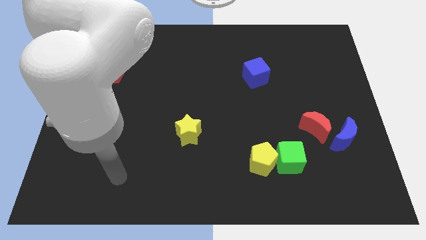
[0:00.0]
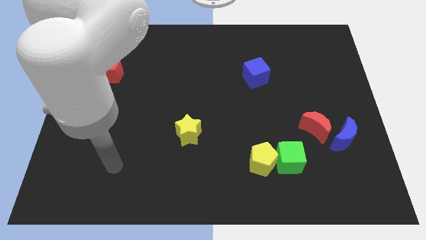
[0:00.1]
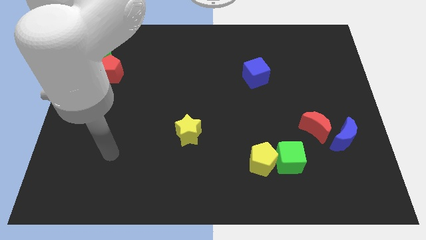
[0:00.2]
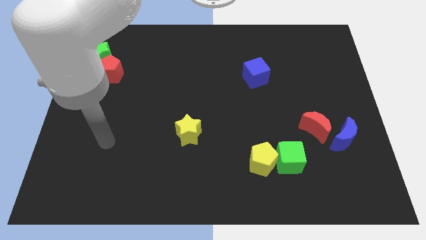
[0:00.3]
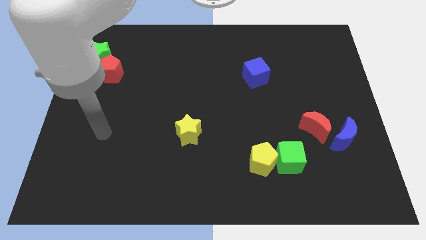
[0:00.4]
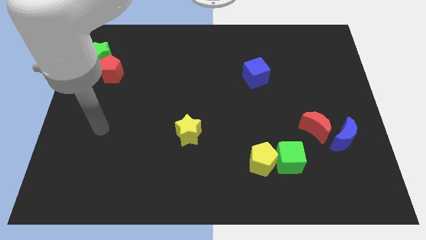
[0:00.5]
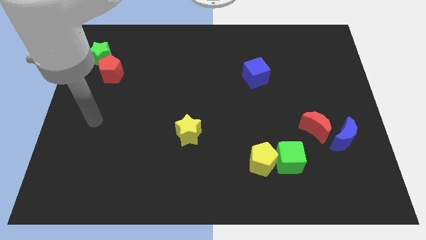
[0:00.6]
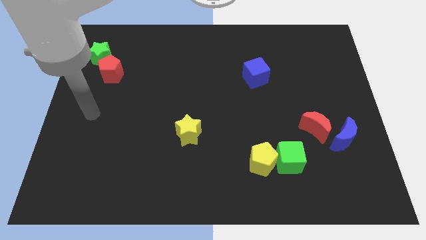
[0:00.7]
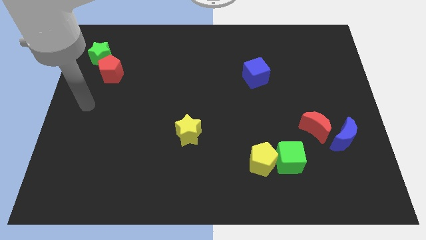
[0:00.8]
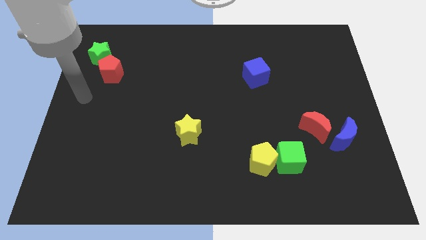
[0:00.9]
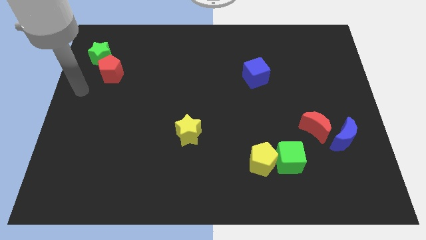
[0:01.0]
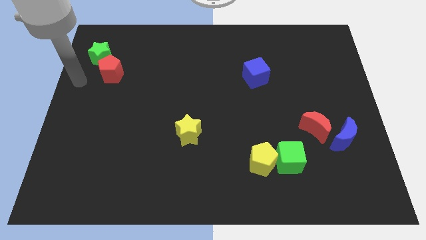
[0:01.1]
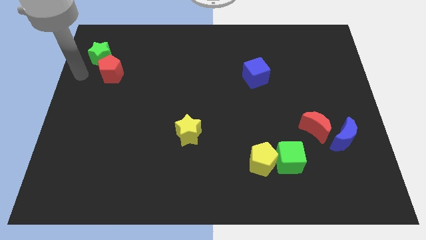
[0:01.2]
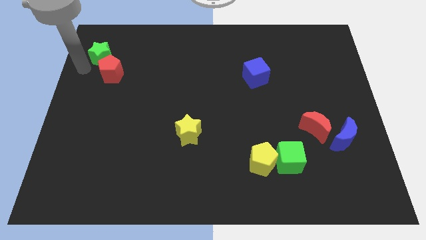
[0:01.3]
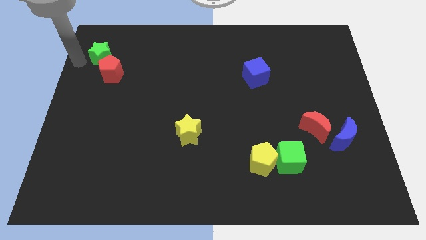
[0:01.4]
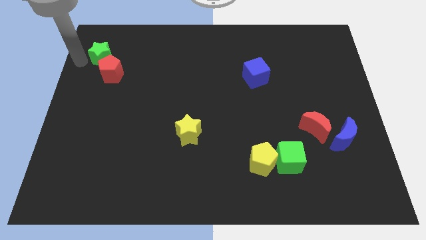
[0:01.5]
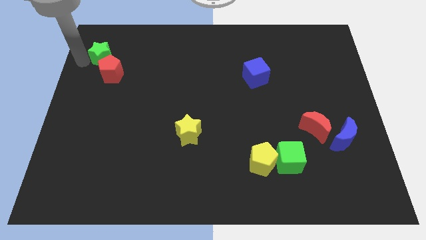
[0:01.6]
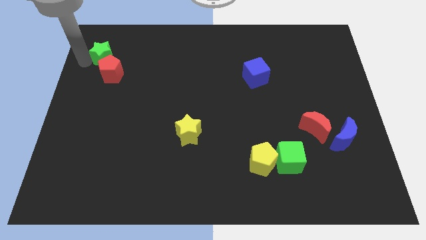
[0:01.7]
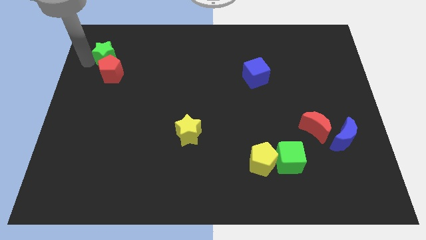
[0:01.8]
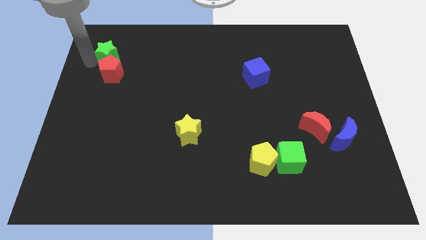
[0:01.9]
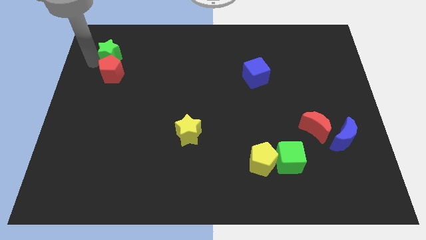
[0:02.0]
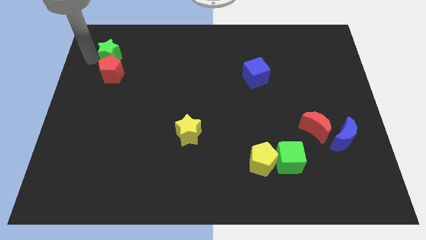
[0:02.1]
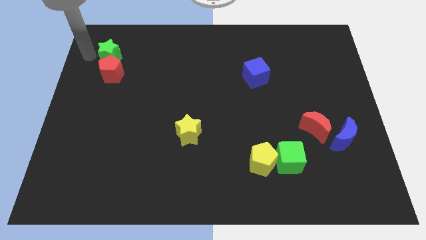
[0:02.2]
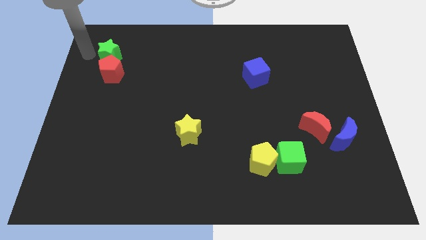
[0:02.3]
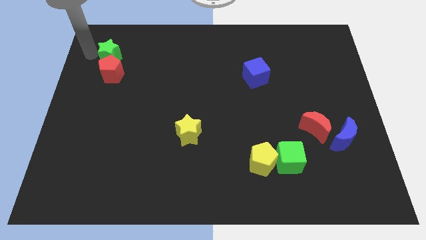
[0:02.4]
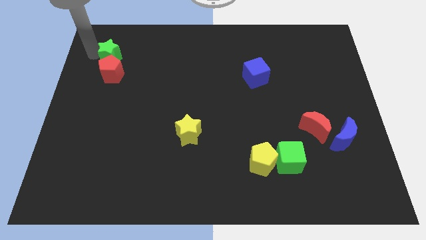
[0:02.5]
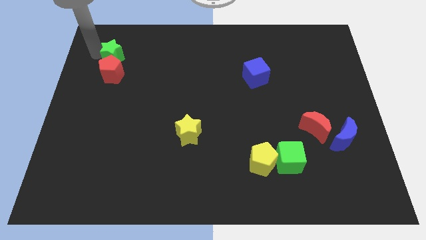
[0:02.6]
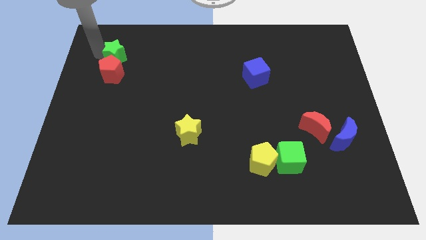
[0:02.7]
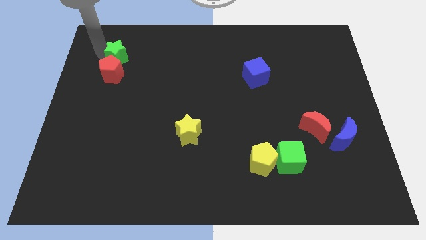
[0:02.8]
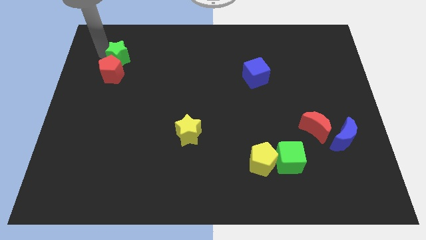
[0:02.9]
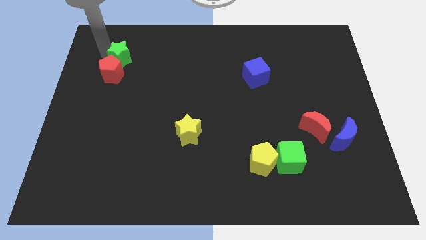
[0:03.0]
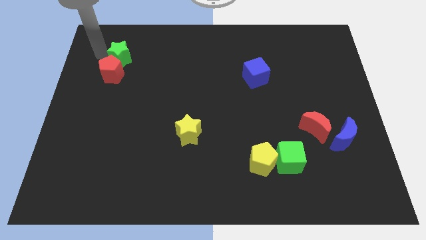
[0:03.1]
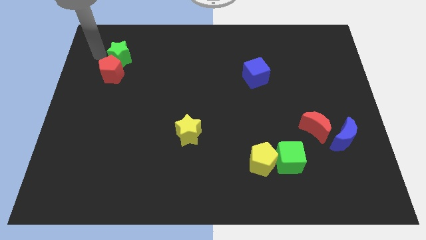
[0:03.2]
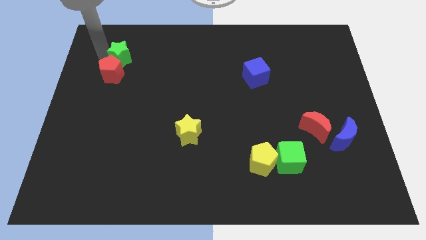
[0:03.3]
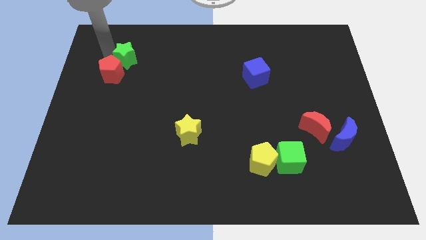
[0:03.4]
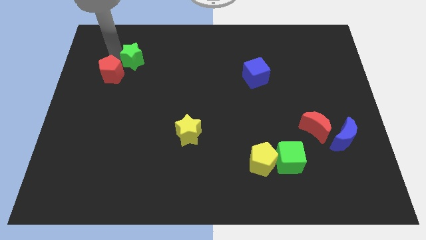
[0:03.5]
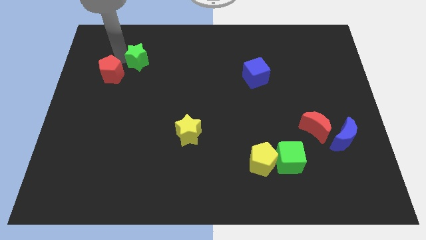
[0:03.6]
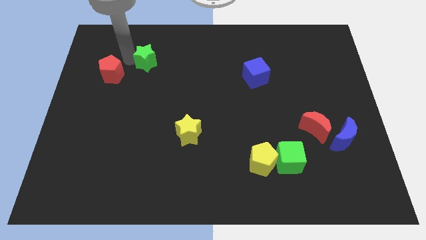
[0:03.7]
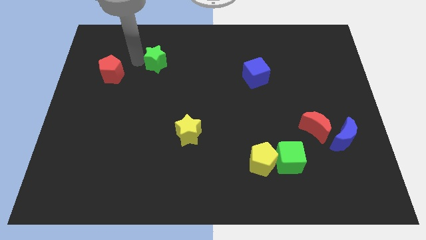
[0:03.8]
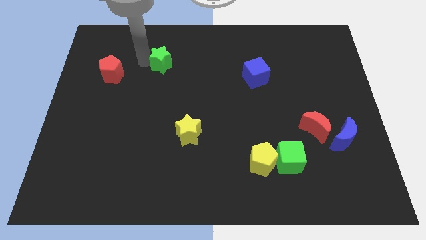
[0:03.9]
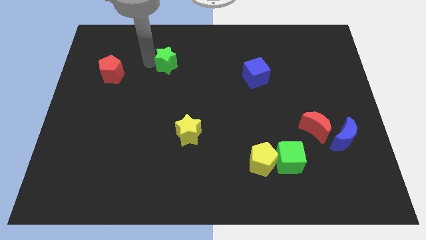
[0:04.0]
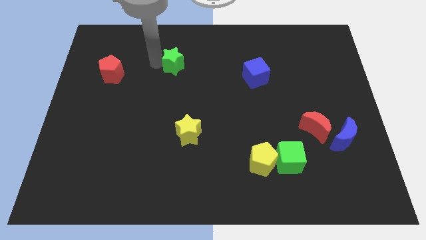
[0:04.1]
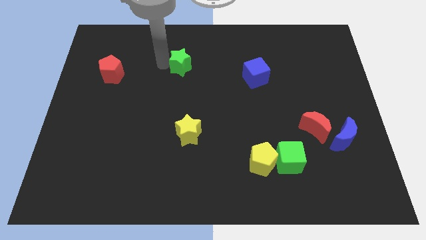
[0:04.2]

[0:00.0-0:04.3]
move the green star to the right

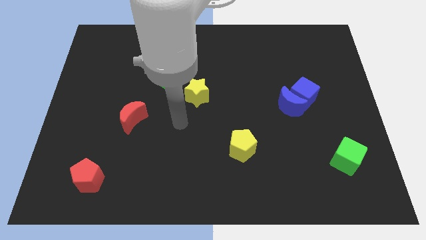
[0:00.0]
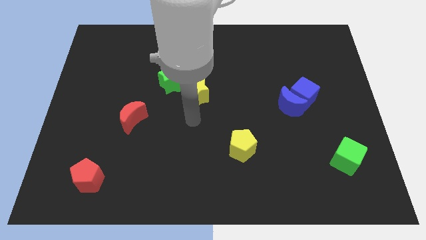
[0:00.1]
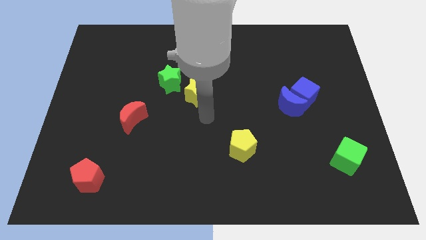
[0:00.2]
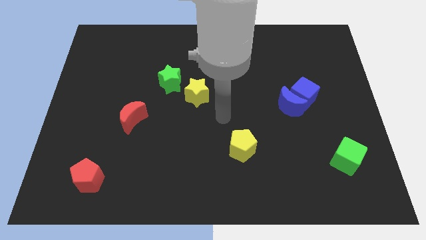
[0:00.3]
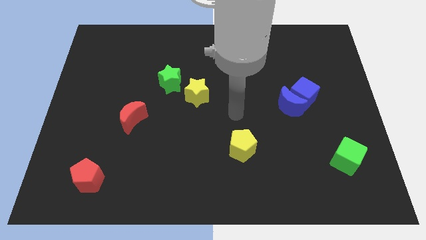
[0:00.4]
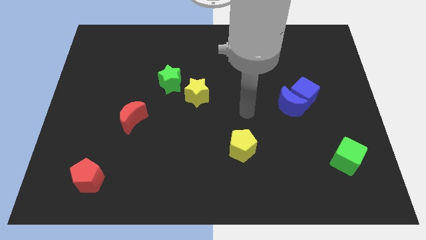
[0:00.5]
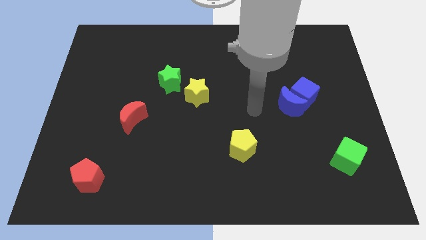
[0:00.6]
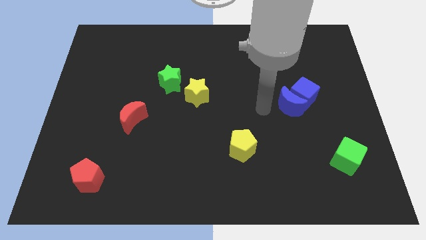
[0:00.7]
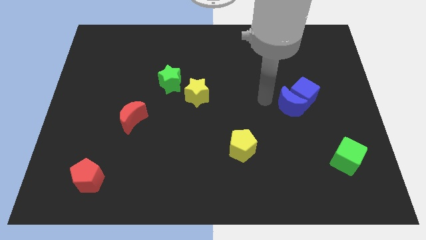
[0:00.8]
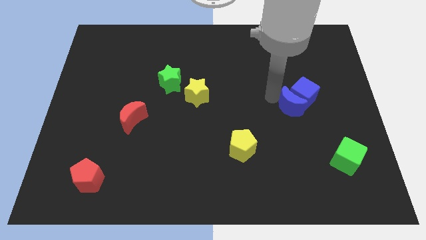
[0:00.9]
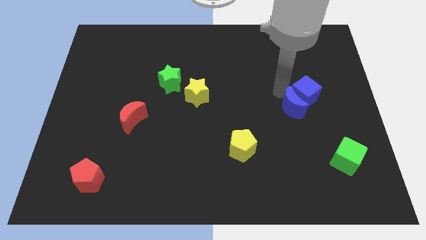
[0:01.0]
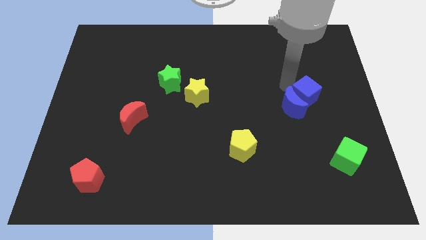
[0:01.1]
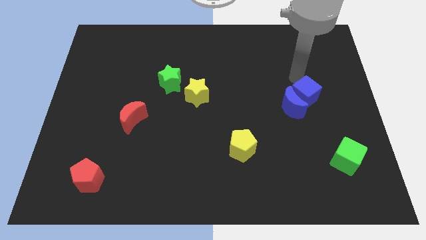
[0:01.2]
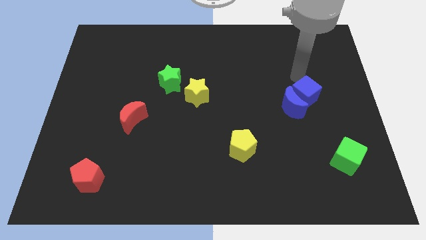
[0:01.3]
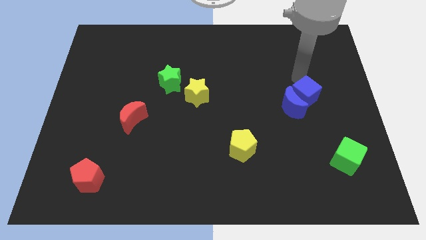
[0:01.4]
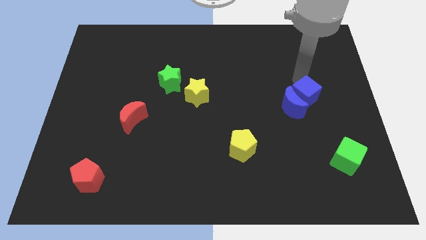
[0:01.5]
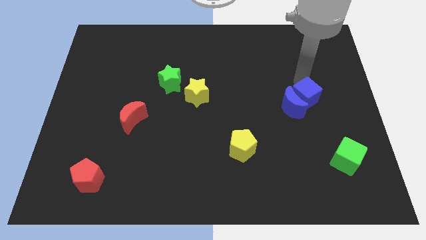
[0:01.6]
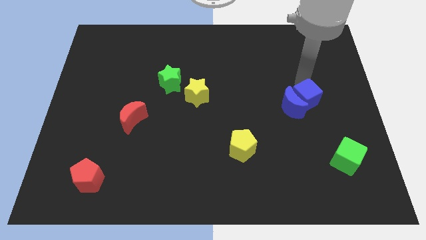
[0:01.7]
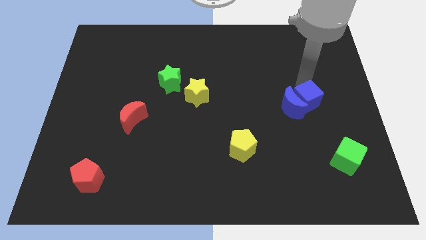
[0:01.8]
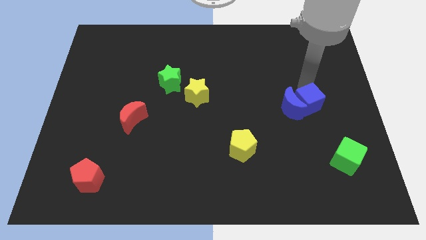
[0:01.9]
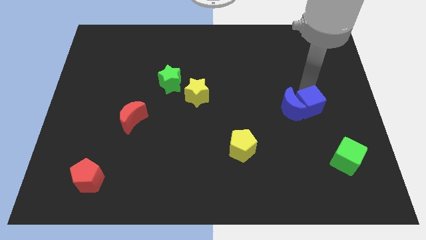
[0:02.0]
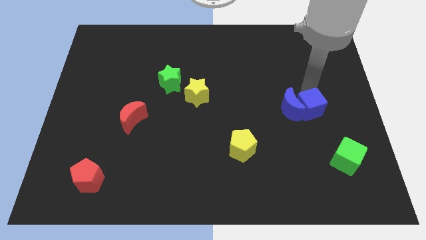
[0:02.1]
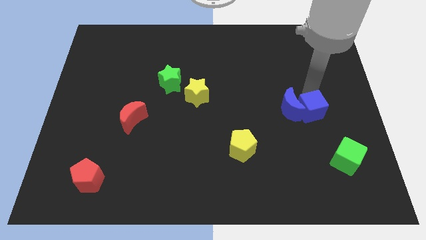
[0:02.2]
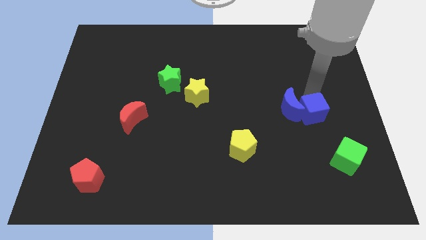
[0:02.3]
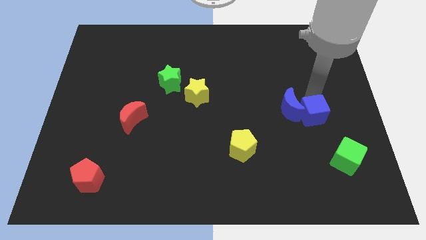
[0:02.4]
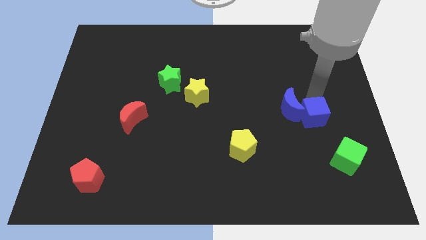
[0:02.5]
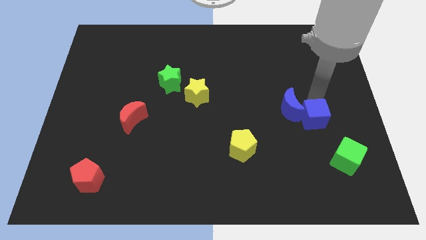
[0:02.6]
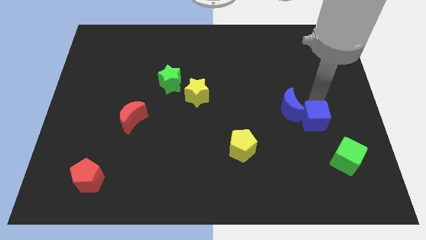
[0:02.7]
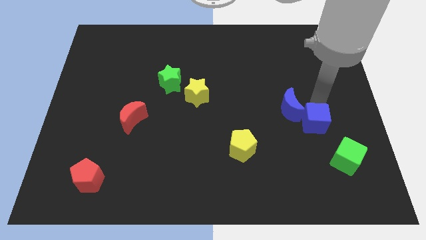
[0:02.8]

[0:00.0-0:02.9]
slide the blue cube a little bit down

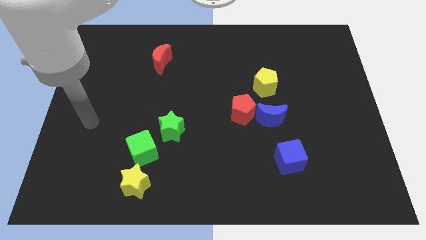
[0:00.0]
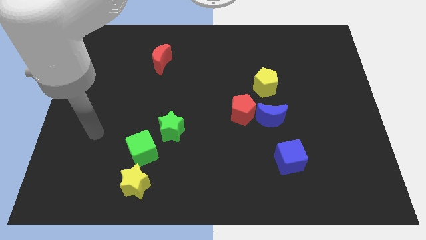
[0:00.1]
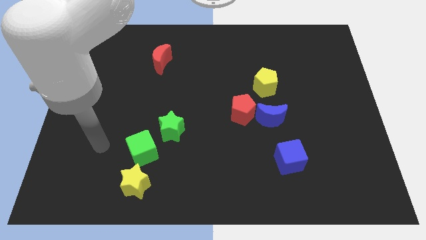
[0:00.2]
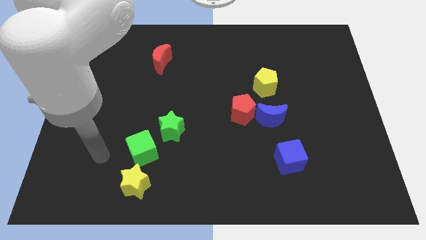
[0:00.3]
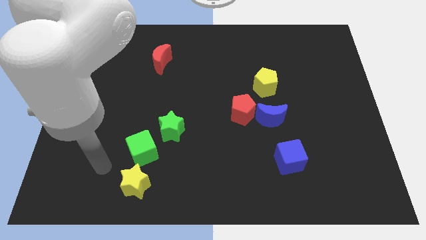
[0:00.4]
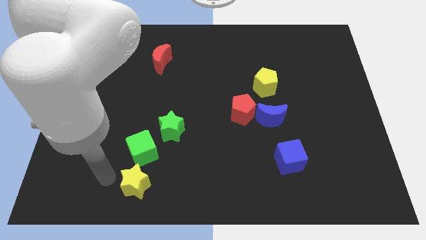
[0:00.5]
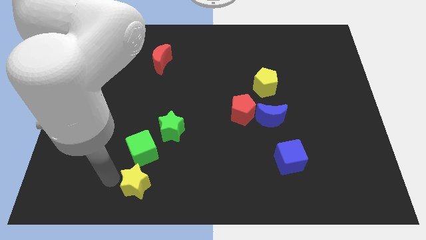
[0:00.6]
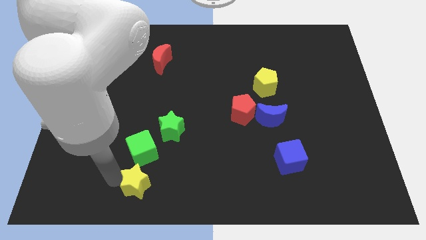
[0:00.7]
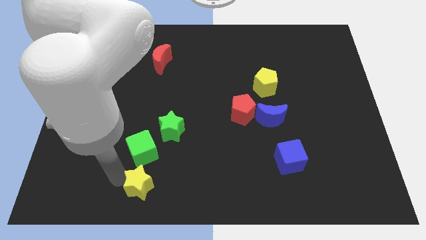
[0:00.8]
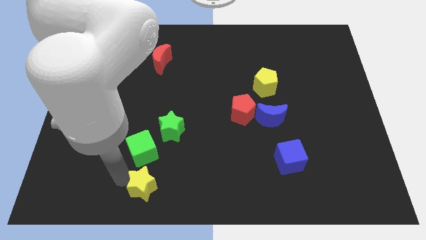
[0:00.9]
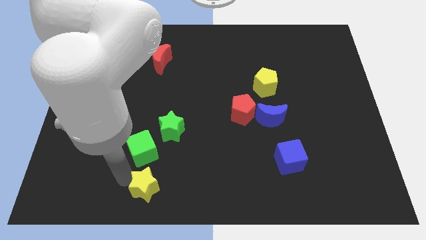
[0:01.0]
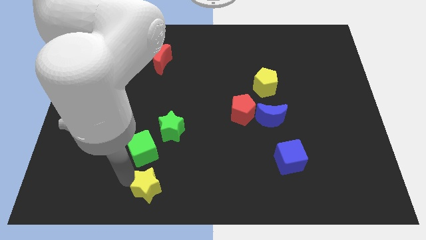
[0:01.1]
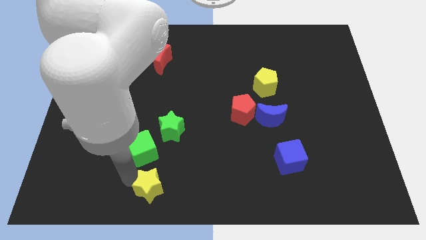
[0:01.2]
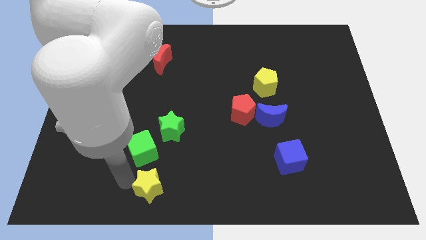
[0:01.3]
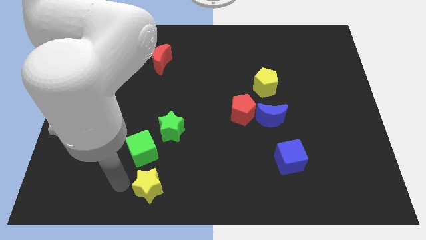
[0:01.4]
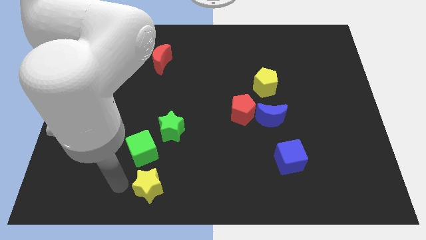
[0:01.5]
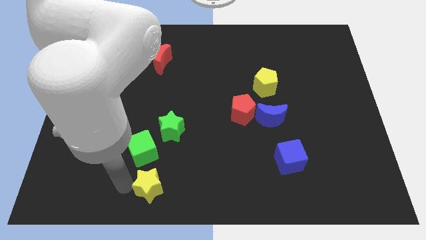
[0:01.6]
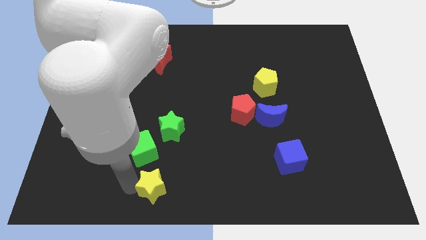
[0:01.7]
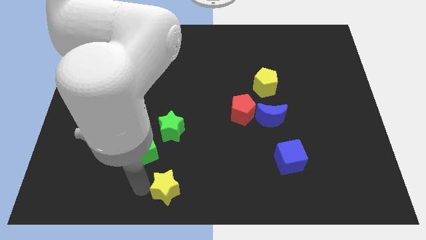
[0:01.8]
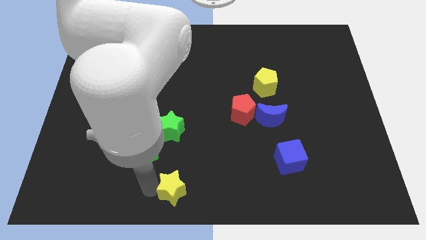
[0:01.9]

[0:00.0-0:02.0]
slightly push the yellow star to the right
